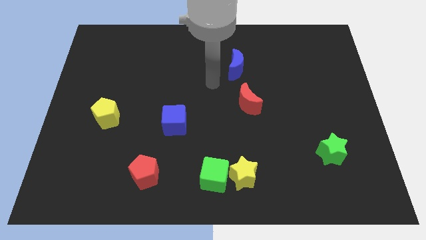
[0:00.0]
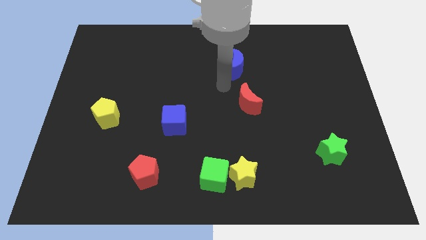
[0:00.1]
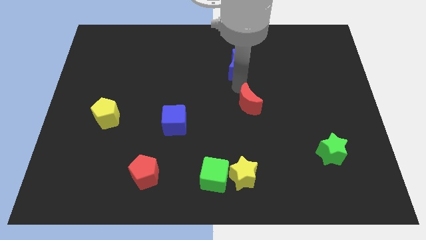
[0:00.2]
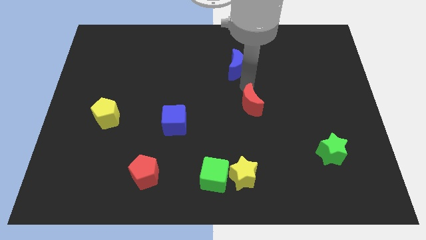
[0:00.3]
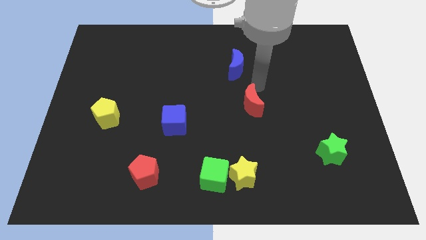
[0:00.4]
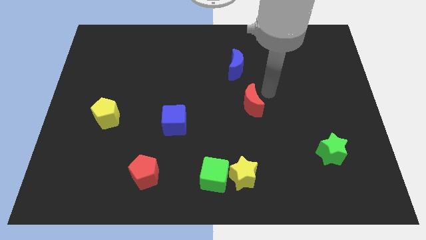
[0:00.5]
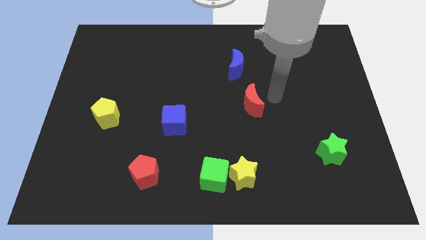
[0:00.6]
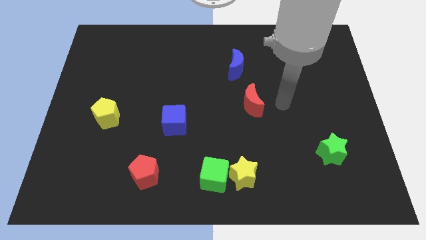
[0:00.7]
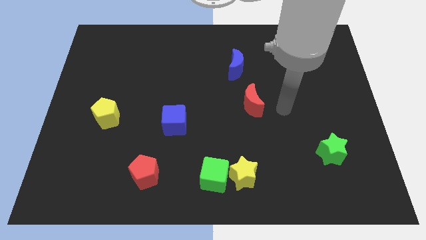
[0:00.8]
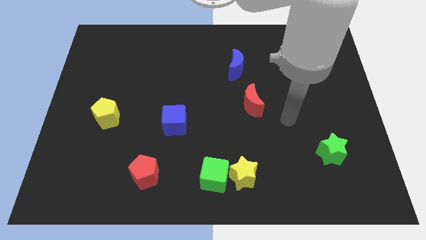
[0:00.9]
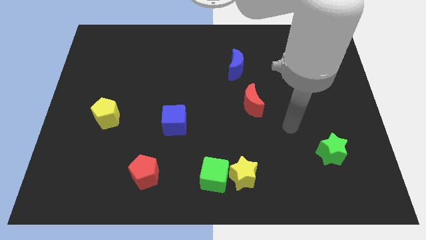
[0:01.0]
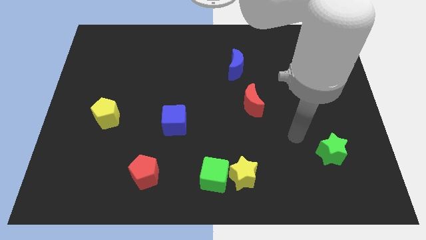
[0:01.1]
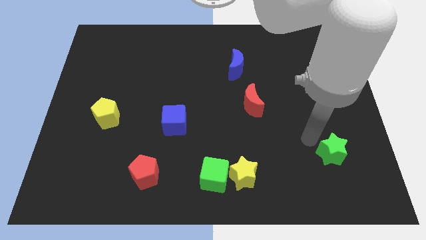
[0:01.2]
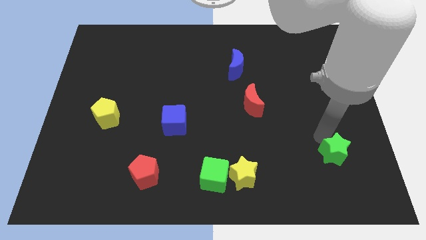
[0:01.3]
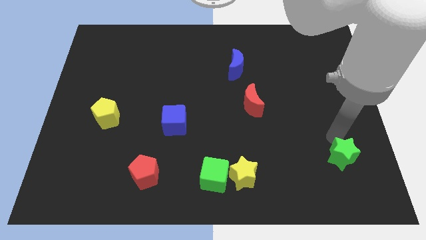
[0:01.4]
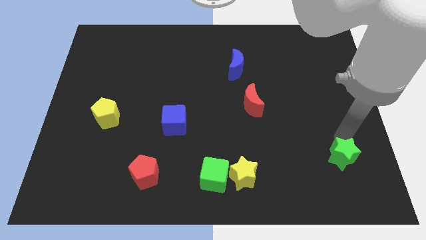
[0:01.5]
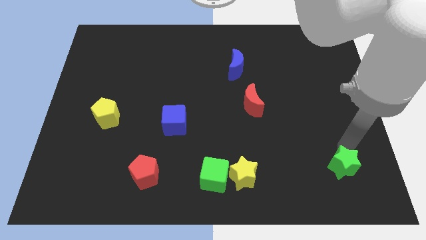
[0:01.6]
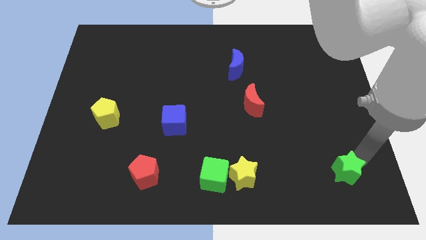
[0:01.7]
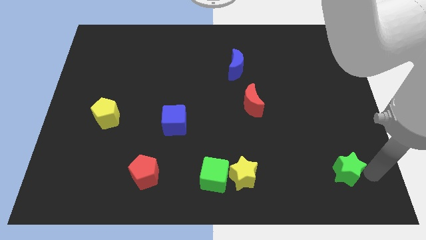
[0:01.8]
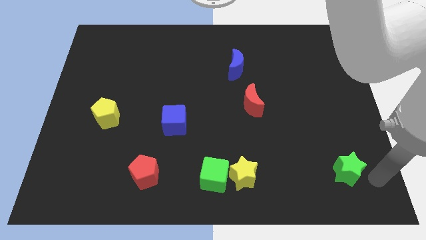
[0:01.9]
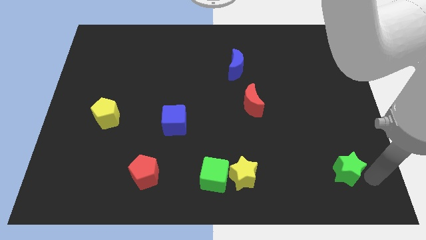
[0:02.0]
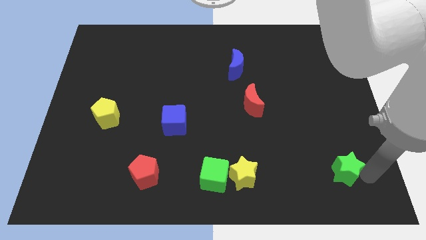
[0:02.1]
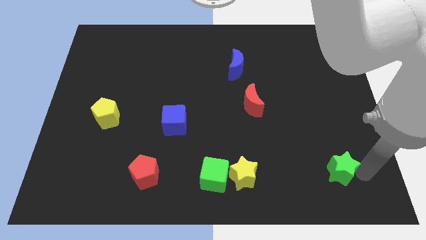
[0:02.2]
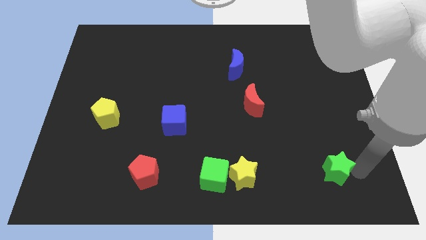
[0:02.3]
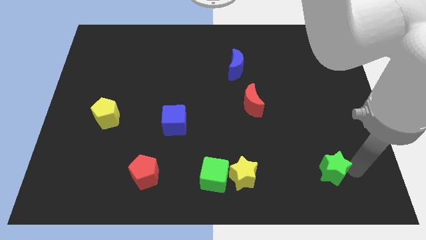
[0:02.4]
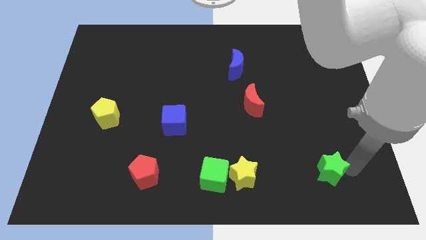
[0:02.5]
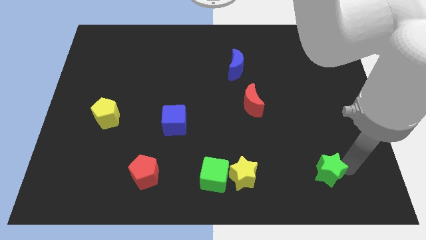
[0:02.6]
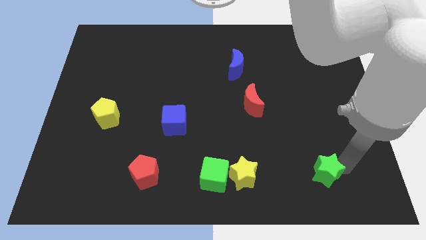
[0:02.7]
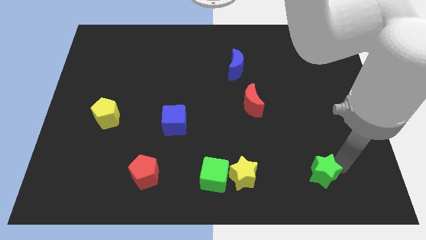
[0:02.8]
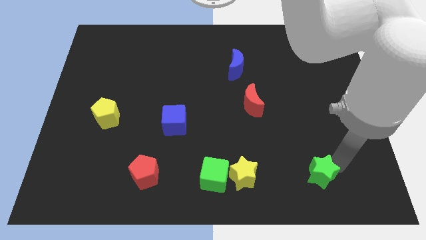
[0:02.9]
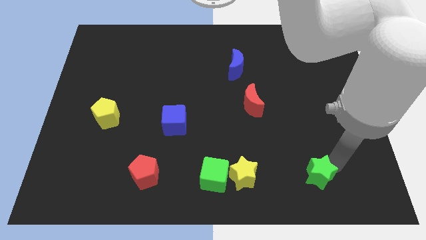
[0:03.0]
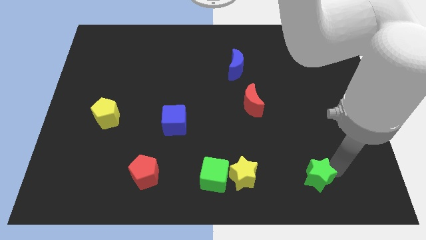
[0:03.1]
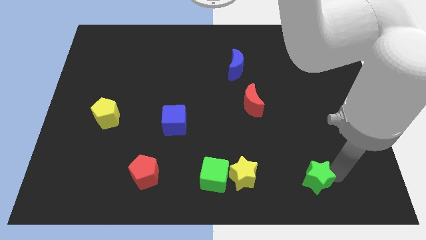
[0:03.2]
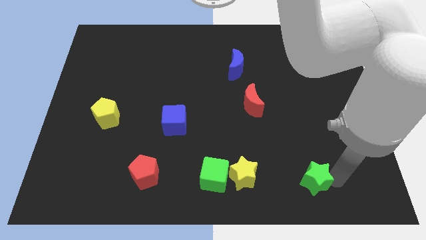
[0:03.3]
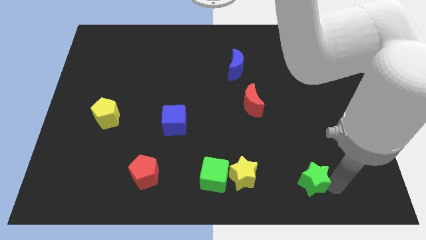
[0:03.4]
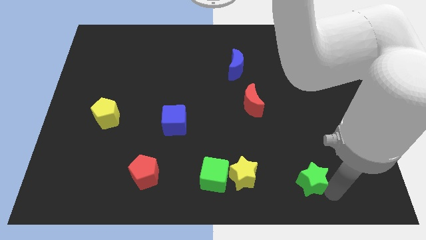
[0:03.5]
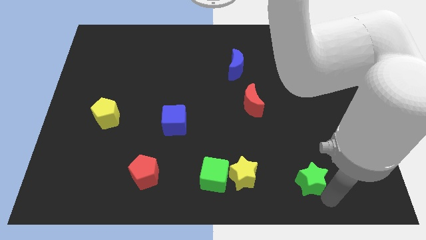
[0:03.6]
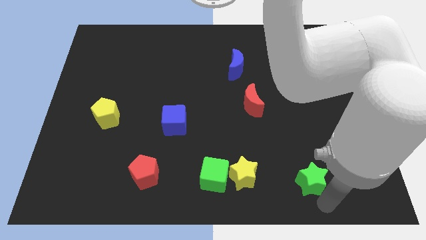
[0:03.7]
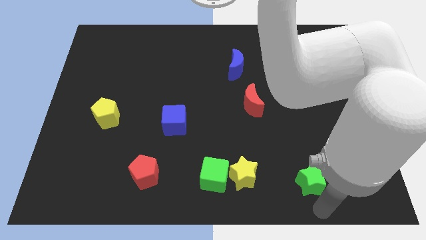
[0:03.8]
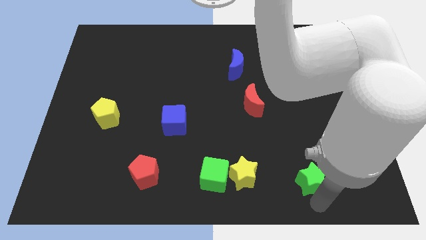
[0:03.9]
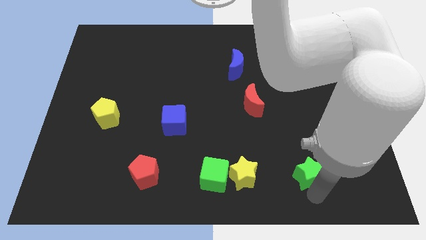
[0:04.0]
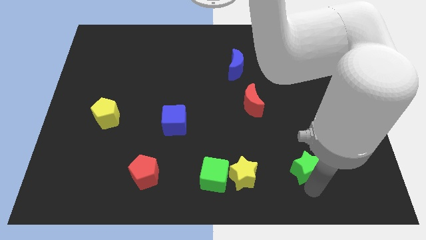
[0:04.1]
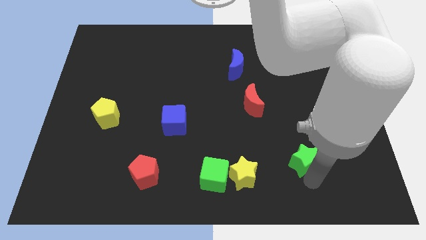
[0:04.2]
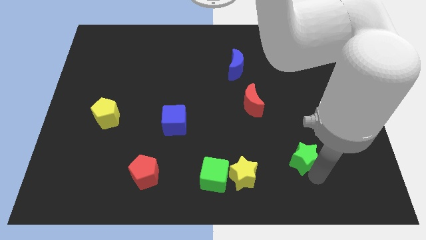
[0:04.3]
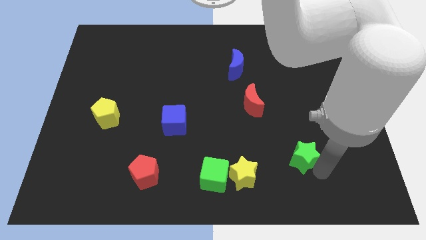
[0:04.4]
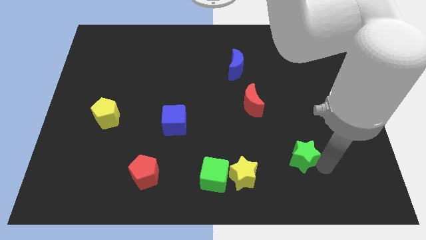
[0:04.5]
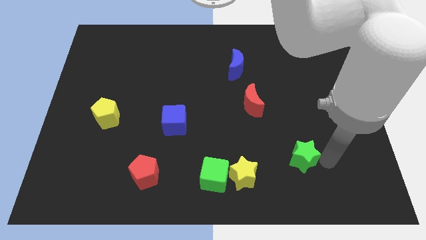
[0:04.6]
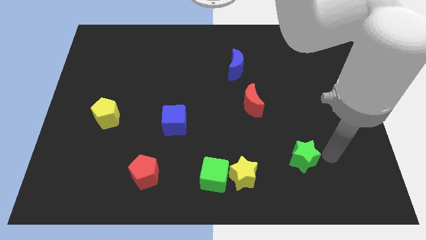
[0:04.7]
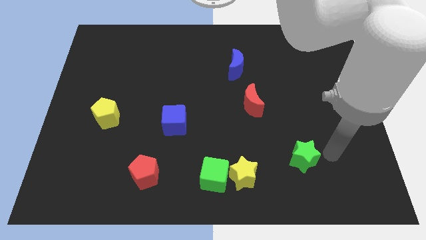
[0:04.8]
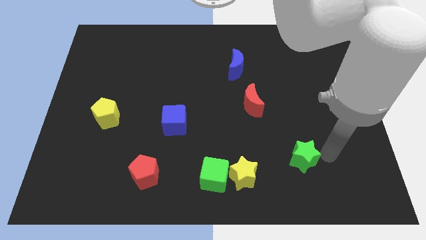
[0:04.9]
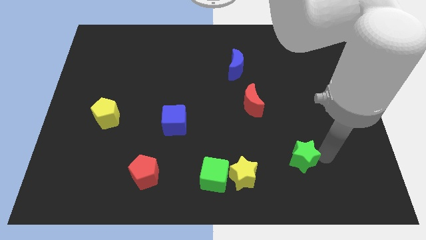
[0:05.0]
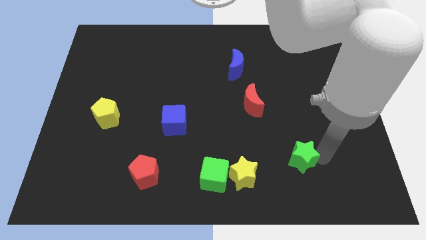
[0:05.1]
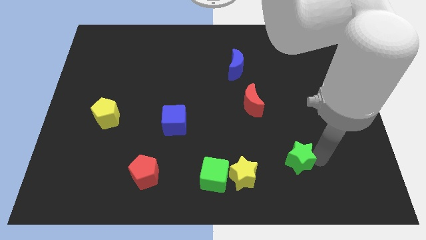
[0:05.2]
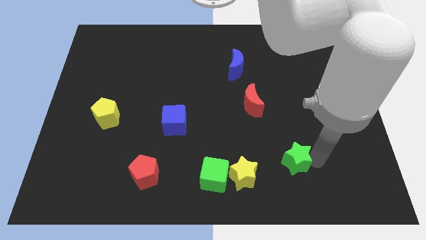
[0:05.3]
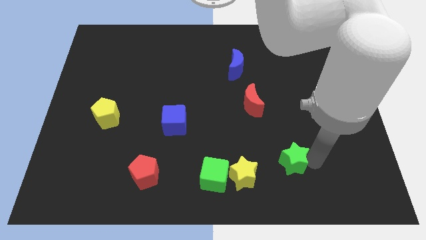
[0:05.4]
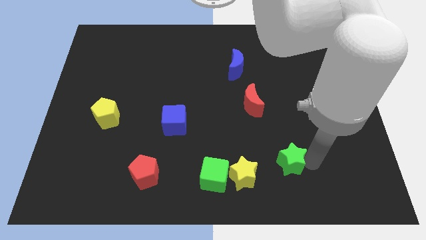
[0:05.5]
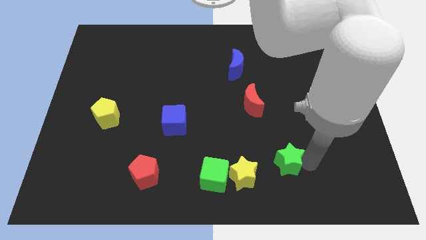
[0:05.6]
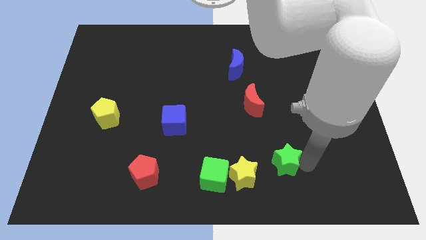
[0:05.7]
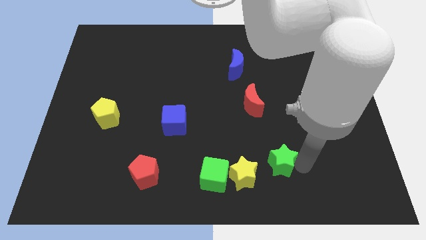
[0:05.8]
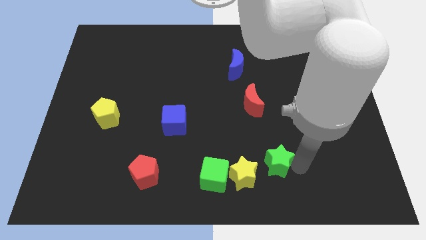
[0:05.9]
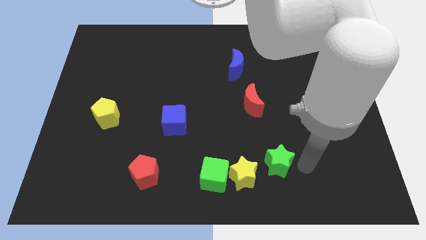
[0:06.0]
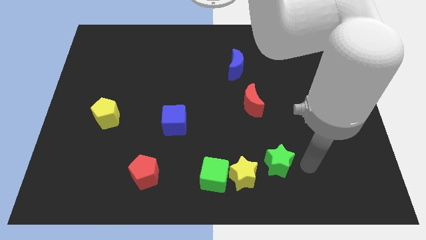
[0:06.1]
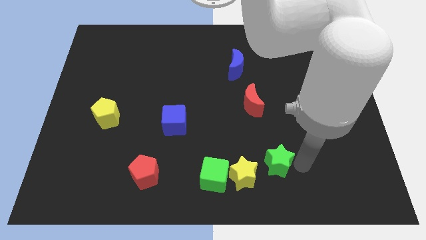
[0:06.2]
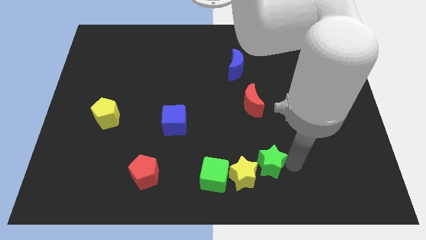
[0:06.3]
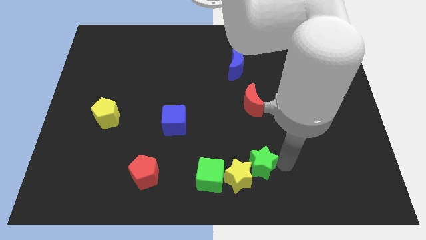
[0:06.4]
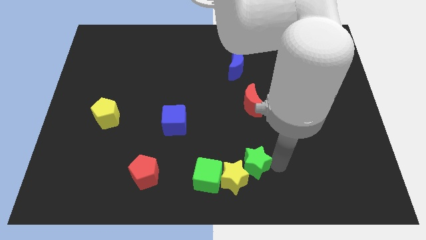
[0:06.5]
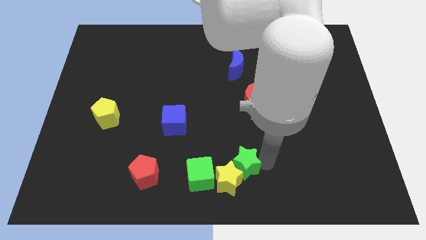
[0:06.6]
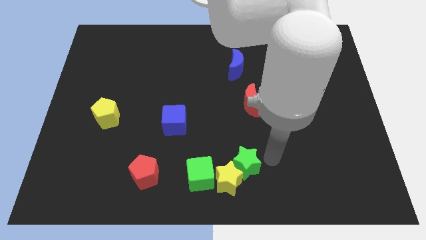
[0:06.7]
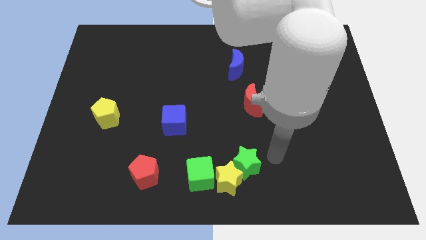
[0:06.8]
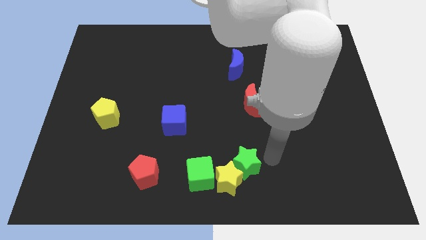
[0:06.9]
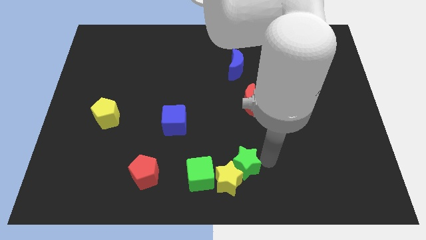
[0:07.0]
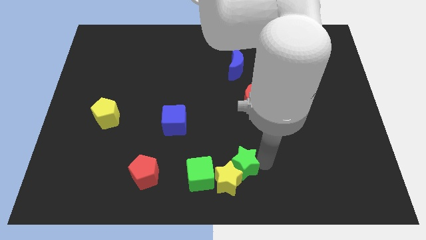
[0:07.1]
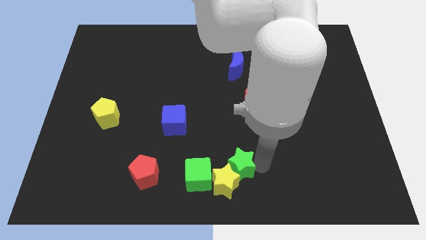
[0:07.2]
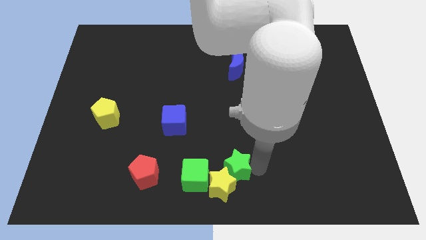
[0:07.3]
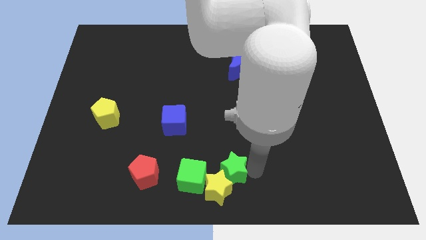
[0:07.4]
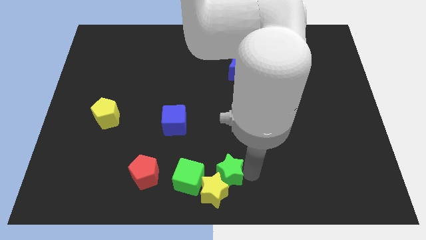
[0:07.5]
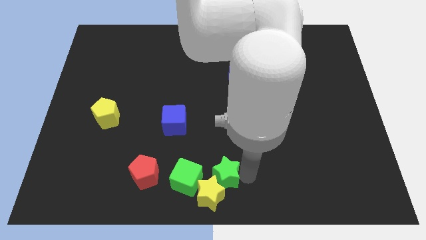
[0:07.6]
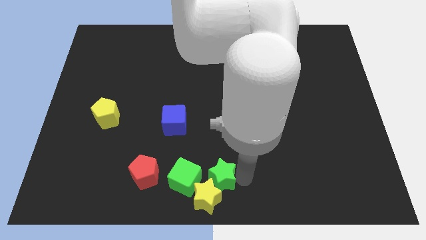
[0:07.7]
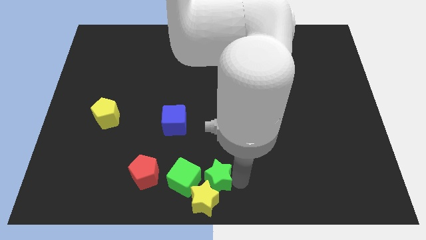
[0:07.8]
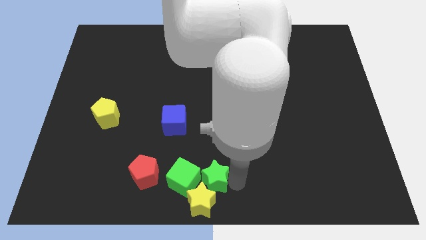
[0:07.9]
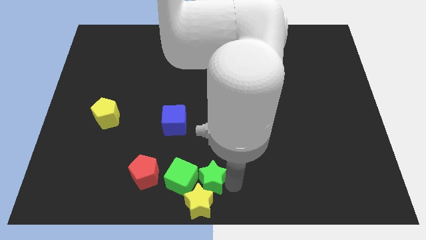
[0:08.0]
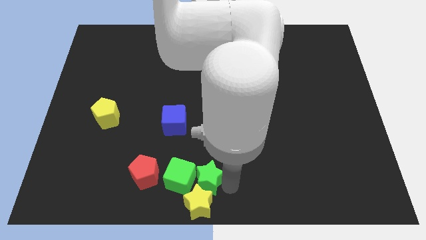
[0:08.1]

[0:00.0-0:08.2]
put the green star next to the green cube
